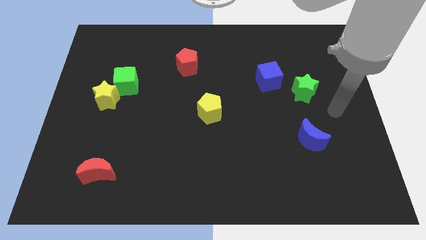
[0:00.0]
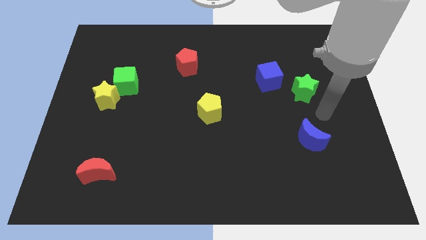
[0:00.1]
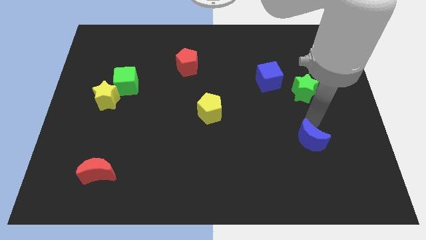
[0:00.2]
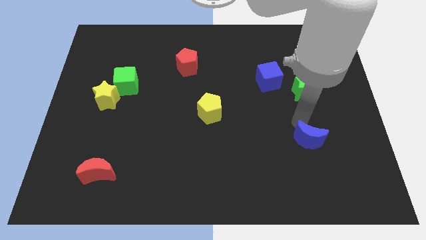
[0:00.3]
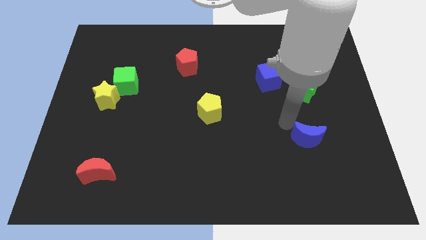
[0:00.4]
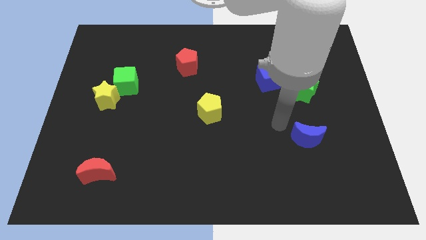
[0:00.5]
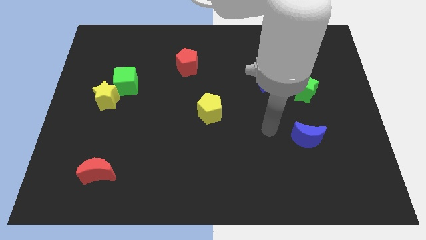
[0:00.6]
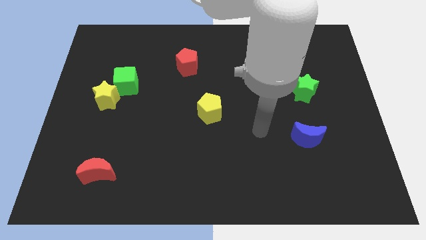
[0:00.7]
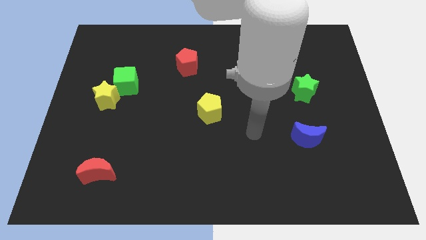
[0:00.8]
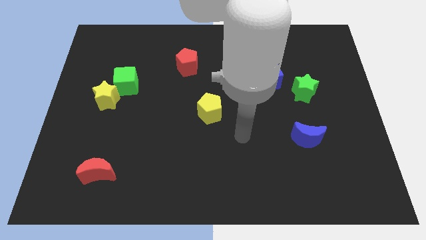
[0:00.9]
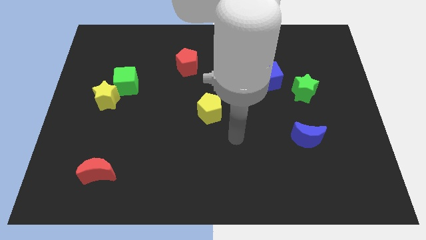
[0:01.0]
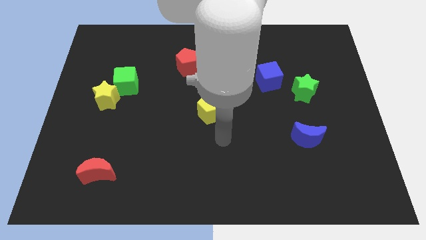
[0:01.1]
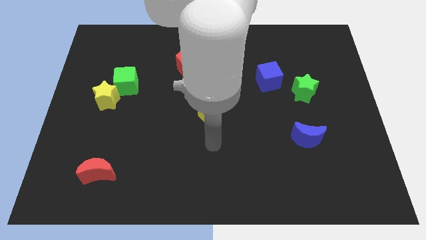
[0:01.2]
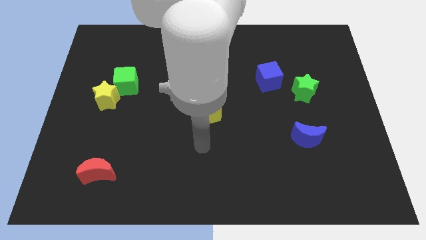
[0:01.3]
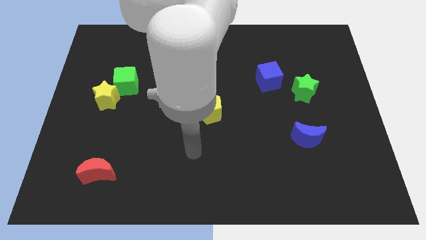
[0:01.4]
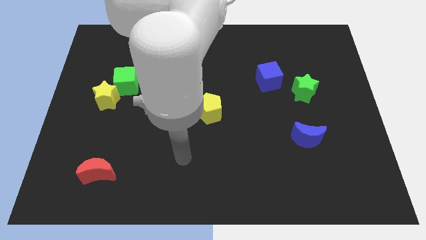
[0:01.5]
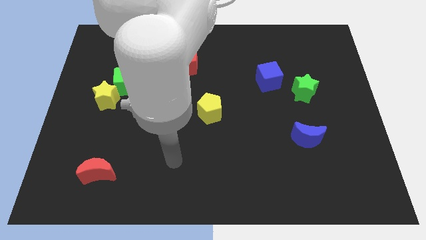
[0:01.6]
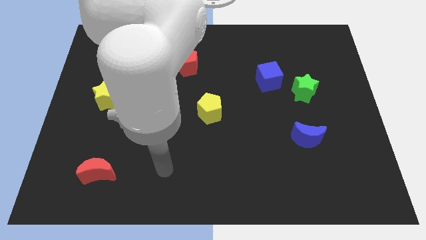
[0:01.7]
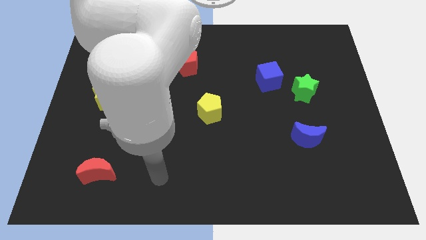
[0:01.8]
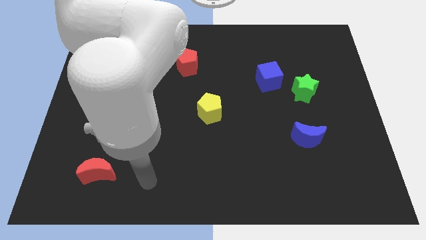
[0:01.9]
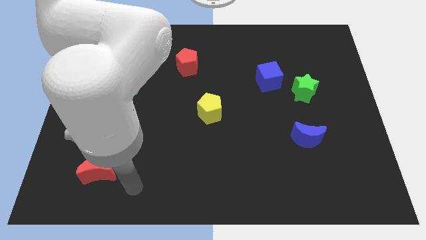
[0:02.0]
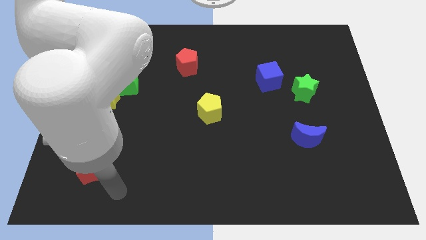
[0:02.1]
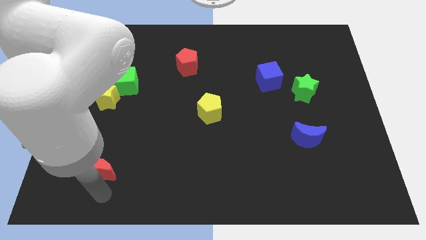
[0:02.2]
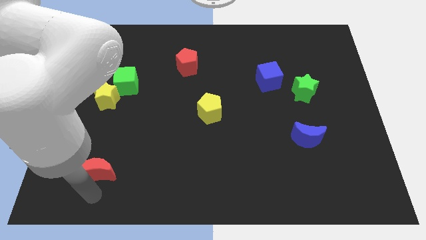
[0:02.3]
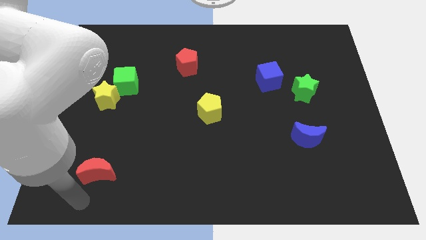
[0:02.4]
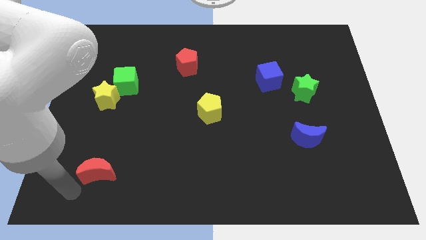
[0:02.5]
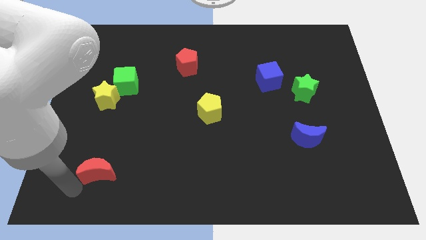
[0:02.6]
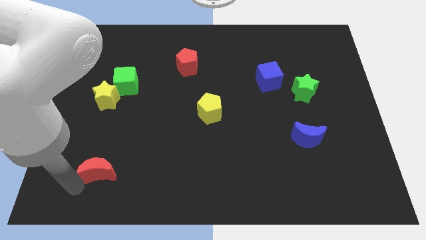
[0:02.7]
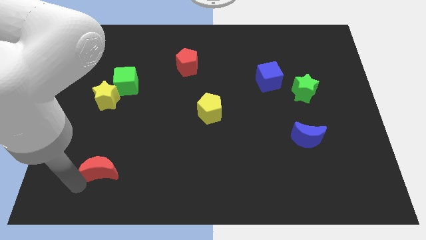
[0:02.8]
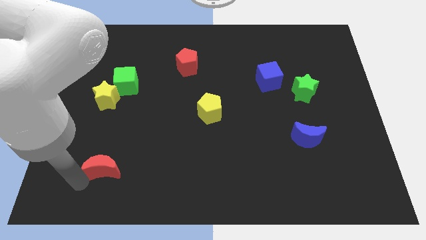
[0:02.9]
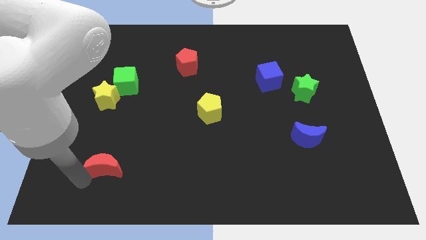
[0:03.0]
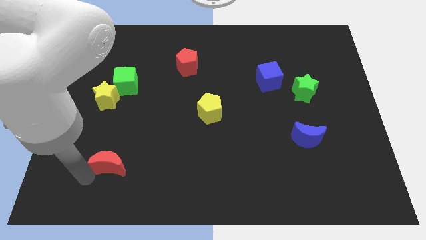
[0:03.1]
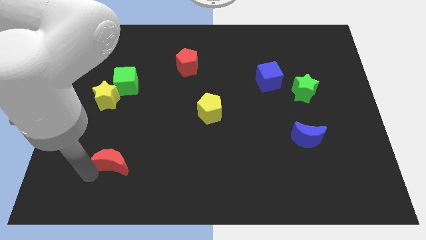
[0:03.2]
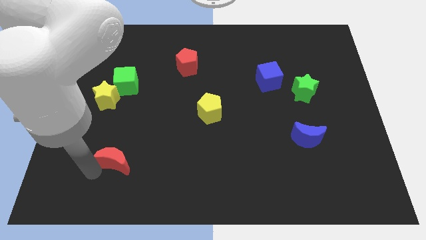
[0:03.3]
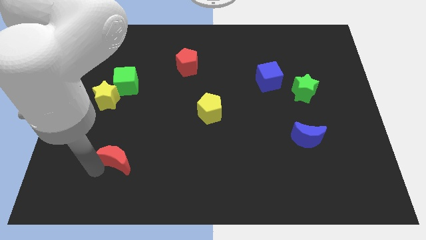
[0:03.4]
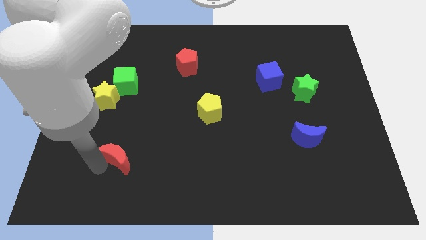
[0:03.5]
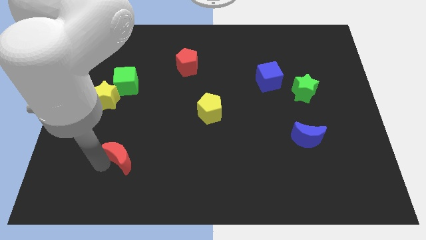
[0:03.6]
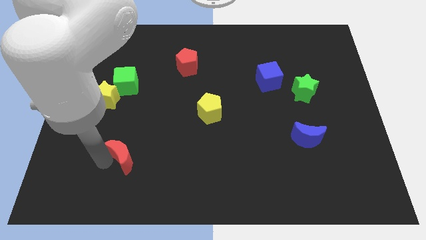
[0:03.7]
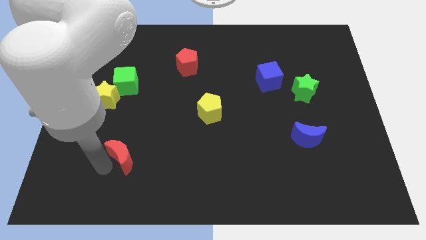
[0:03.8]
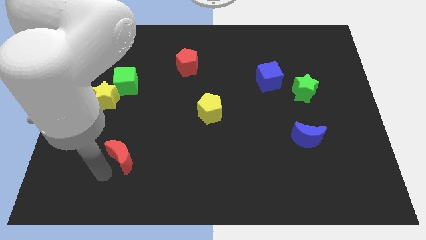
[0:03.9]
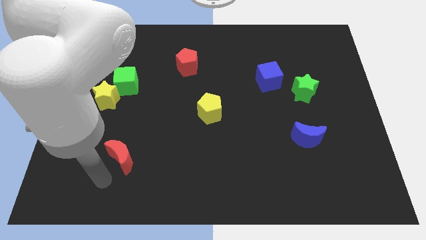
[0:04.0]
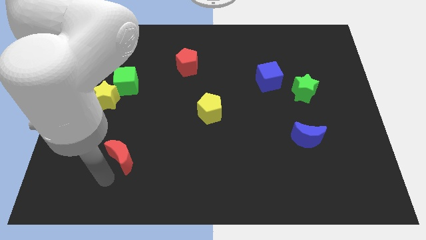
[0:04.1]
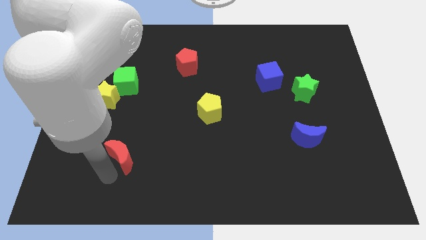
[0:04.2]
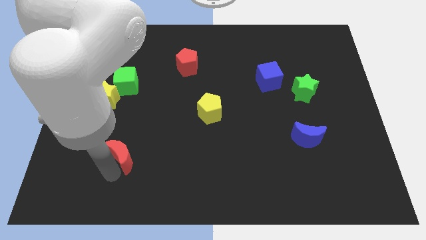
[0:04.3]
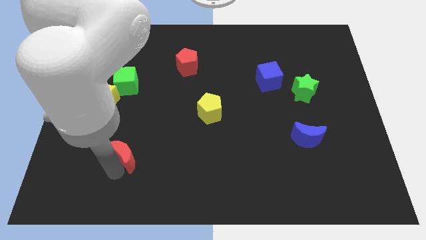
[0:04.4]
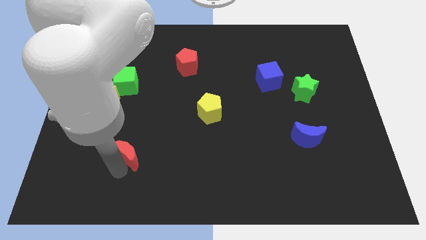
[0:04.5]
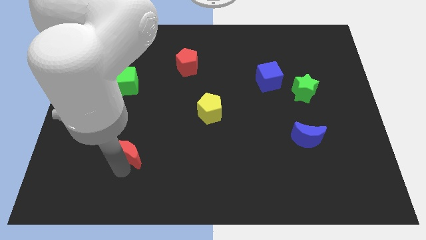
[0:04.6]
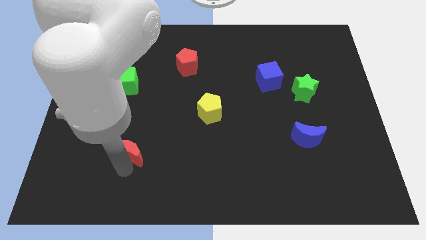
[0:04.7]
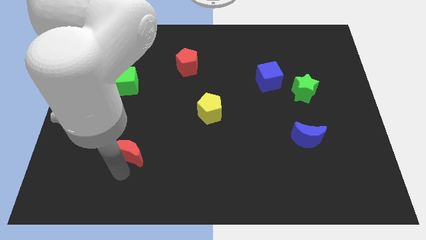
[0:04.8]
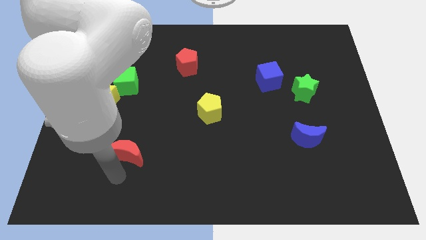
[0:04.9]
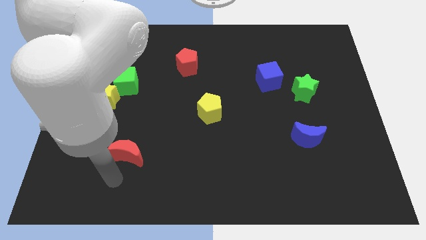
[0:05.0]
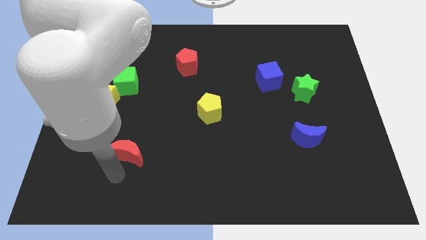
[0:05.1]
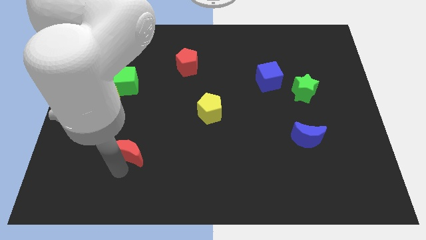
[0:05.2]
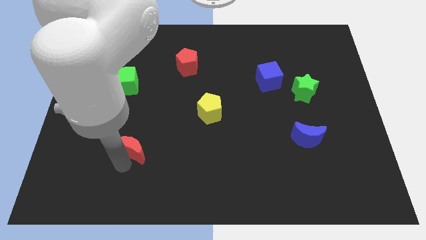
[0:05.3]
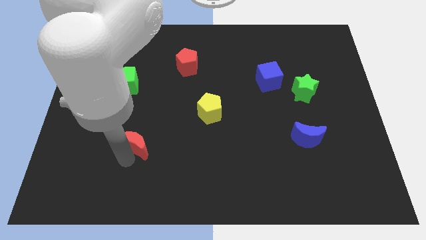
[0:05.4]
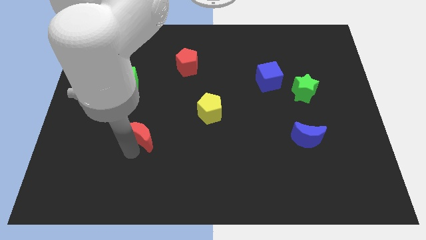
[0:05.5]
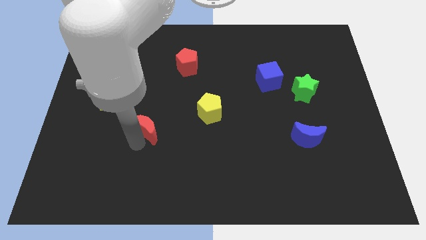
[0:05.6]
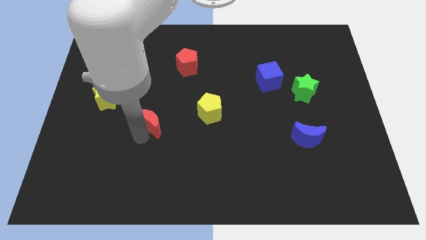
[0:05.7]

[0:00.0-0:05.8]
slide the red moon to the left of the yellow pentagon

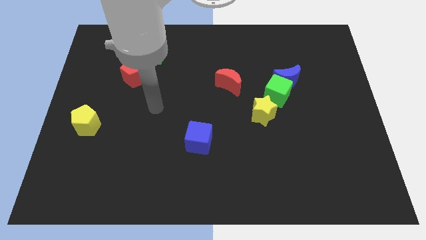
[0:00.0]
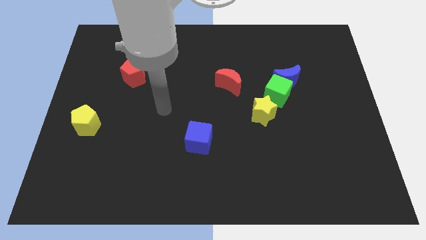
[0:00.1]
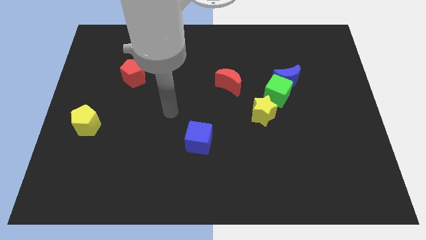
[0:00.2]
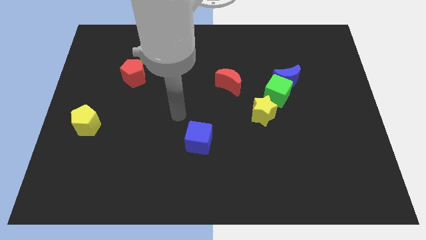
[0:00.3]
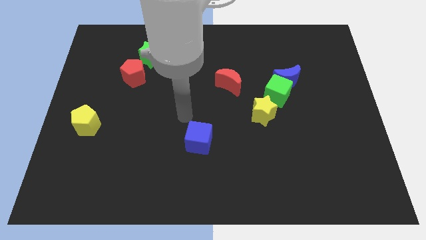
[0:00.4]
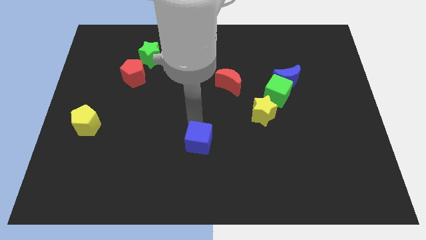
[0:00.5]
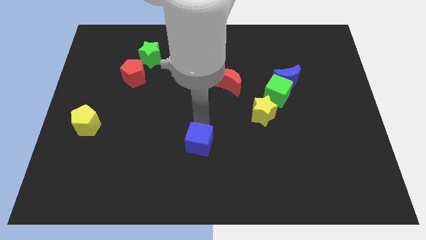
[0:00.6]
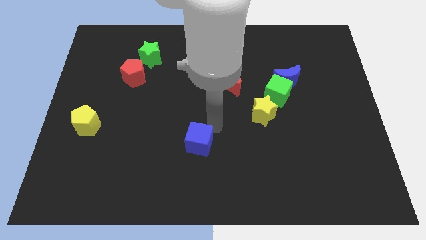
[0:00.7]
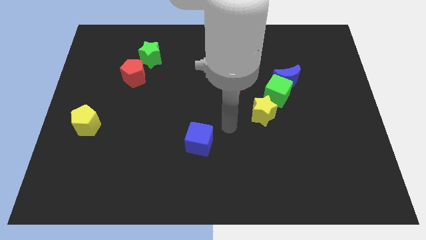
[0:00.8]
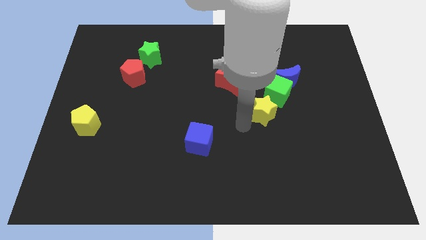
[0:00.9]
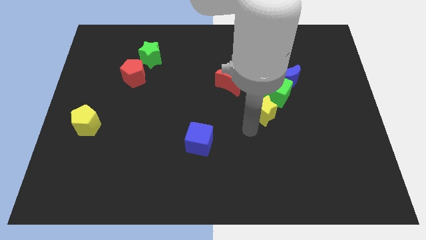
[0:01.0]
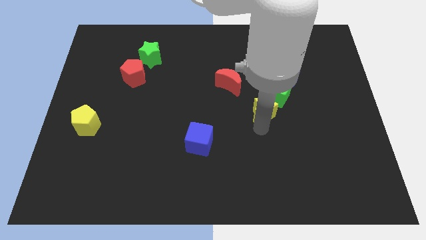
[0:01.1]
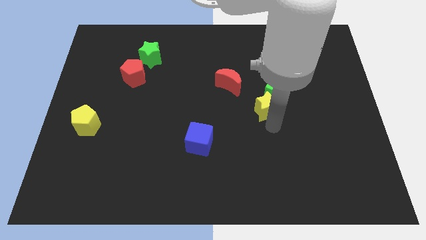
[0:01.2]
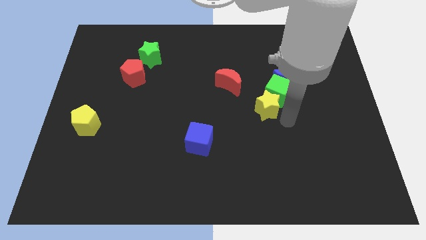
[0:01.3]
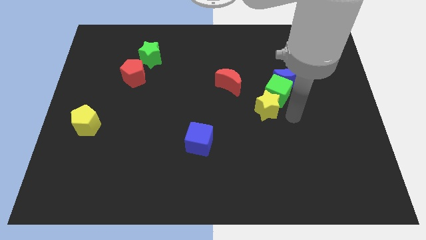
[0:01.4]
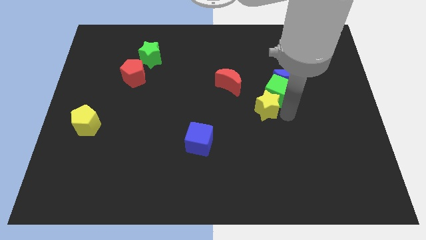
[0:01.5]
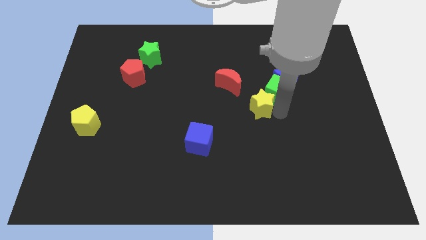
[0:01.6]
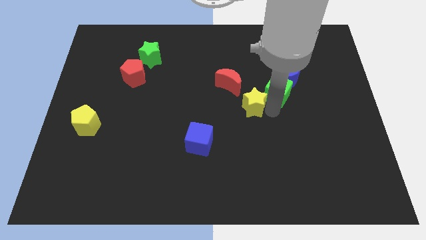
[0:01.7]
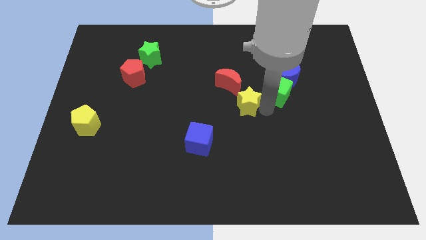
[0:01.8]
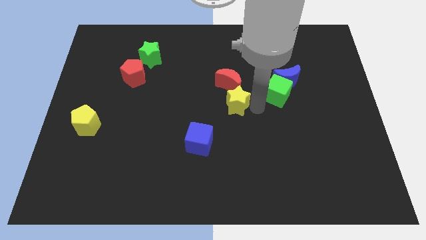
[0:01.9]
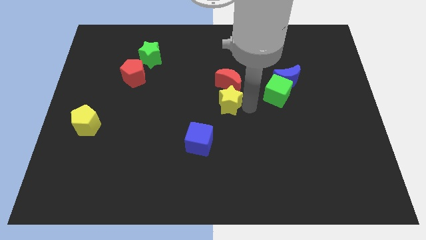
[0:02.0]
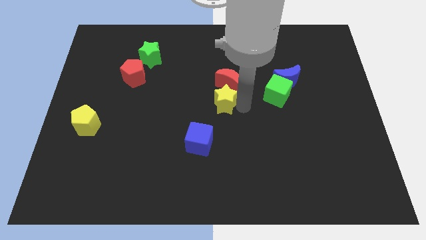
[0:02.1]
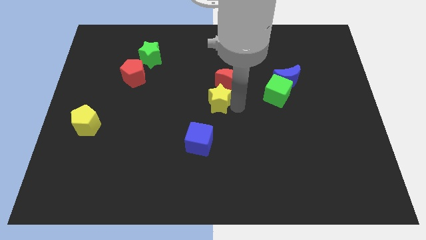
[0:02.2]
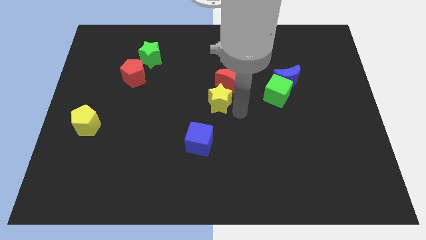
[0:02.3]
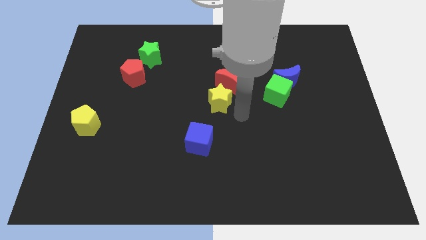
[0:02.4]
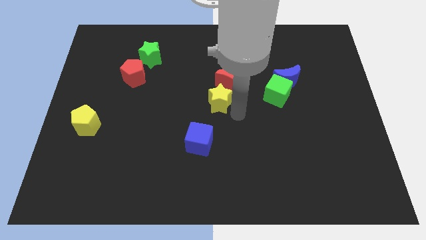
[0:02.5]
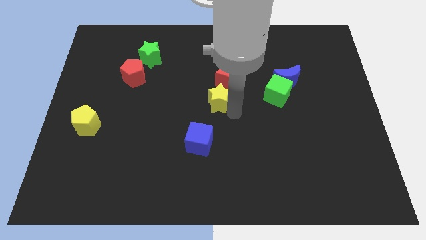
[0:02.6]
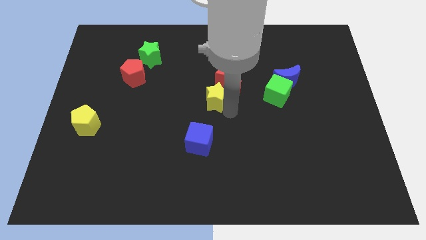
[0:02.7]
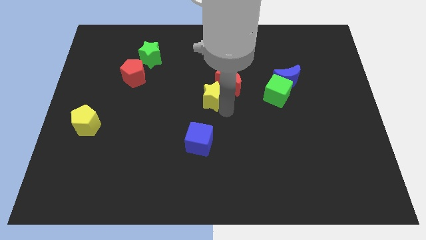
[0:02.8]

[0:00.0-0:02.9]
push the yellow star just left of the red moon
